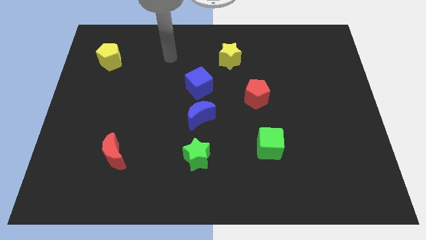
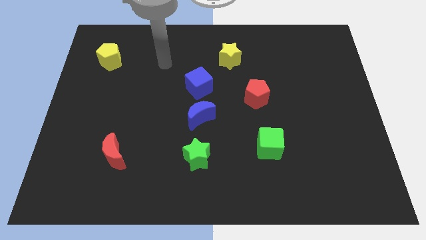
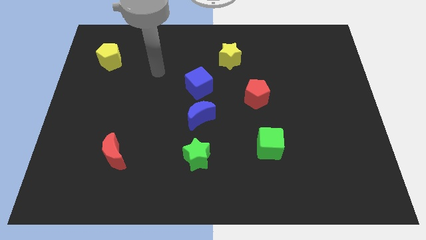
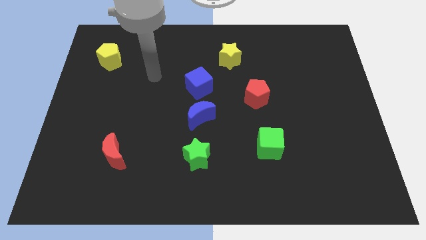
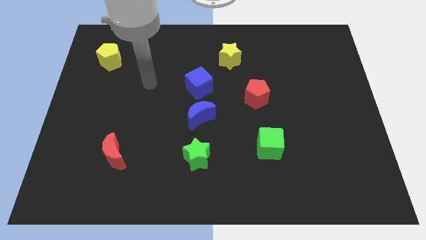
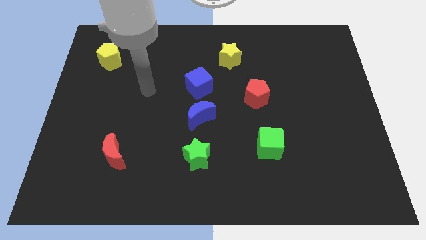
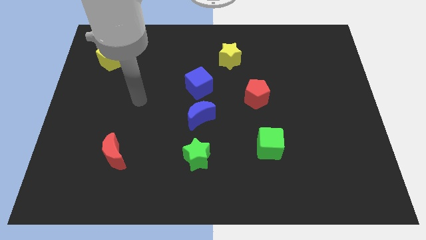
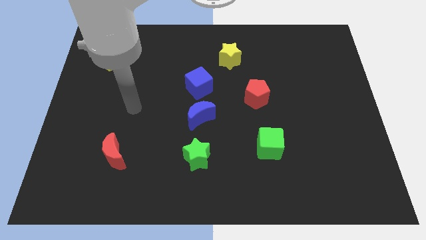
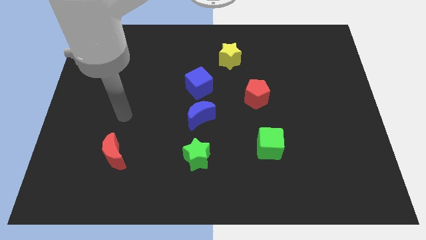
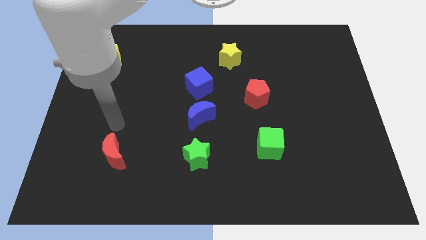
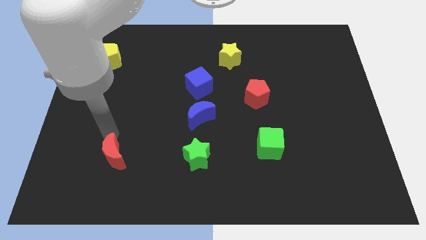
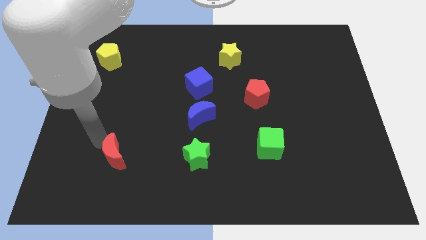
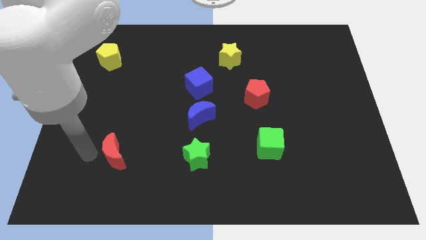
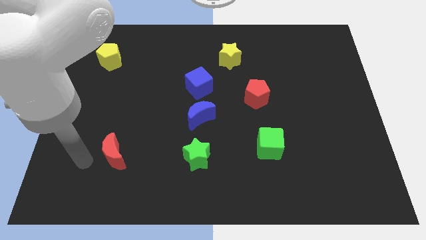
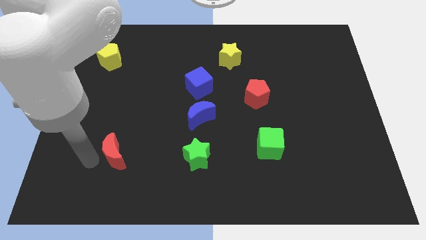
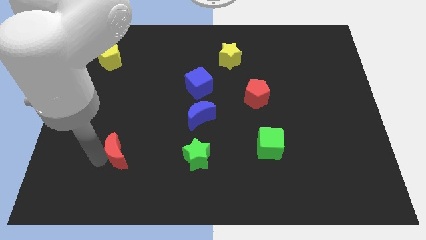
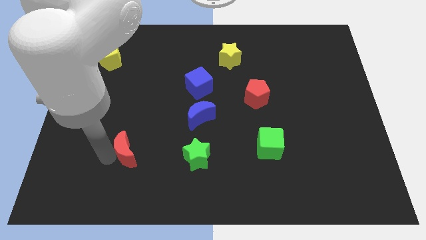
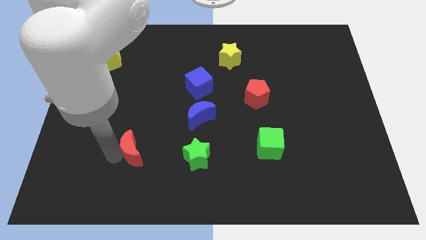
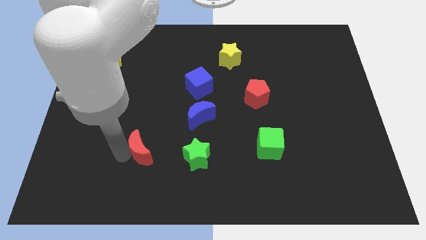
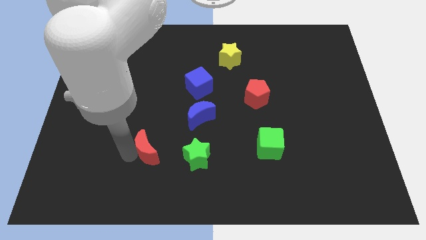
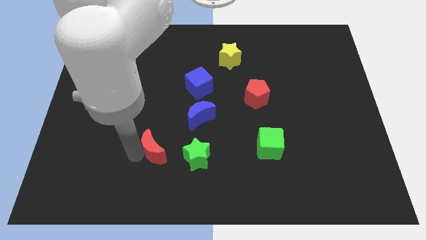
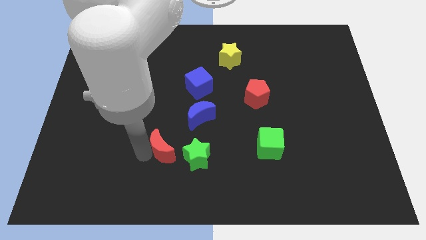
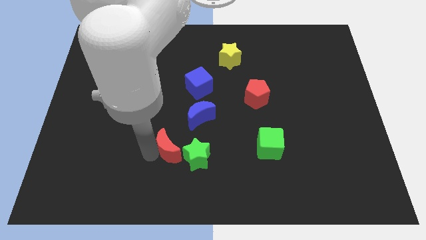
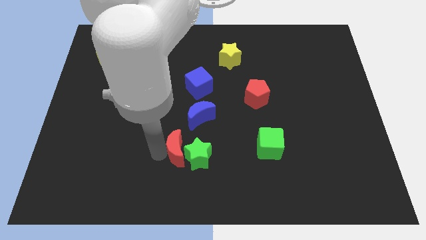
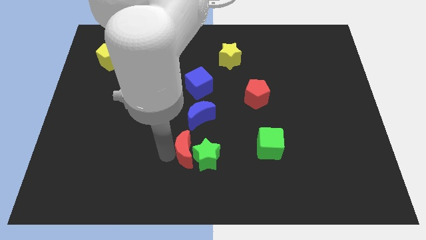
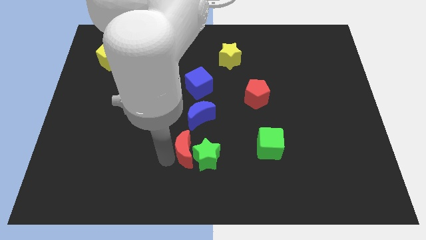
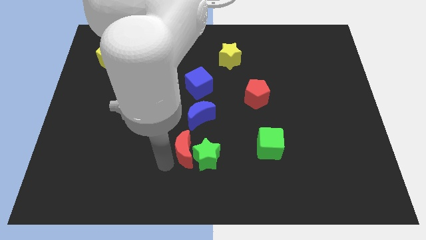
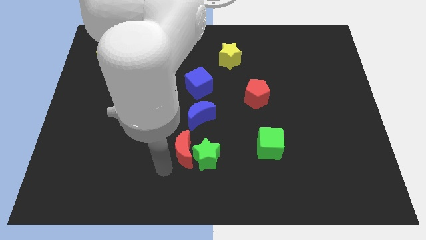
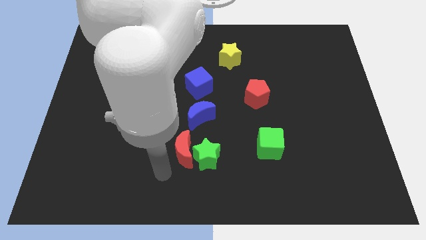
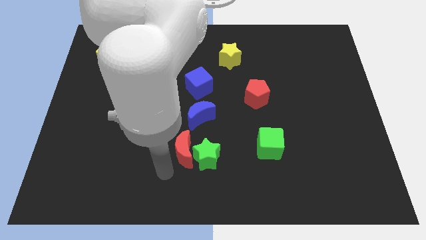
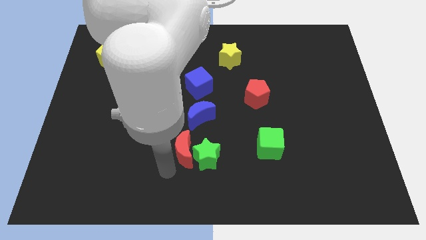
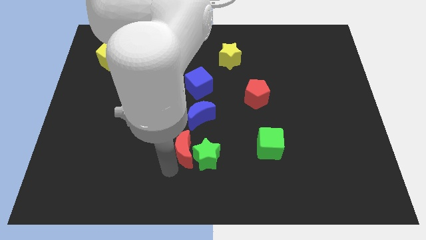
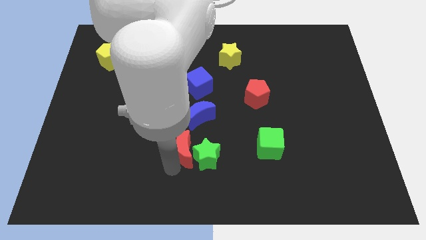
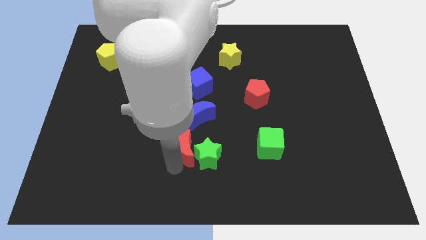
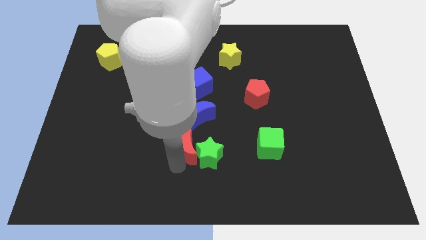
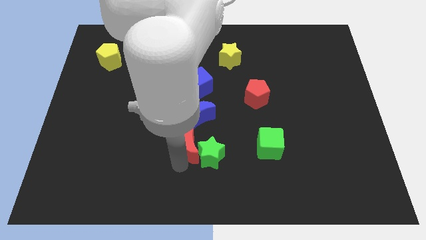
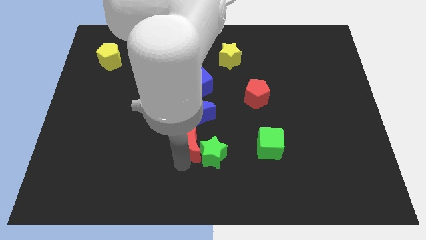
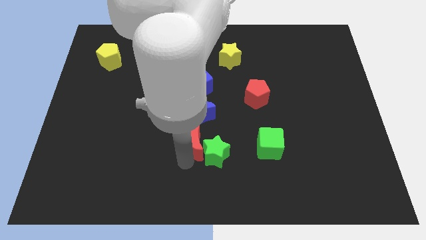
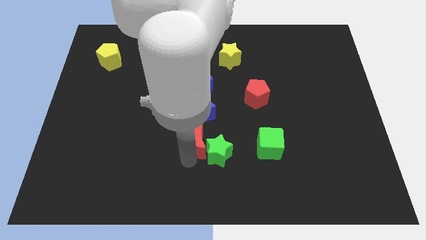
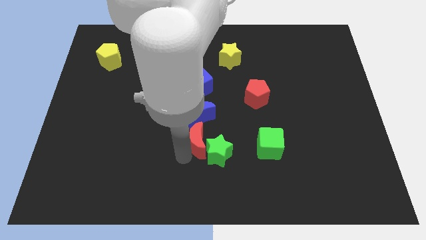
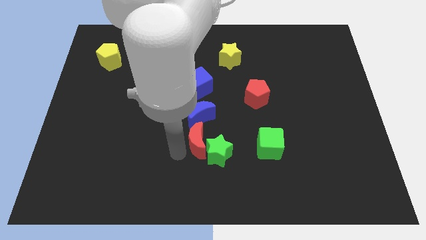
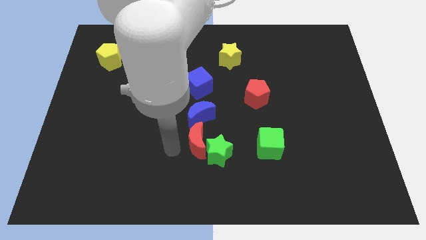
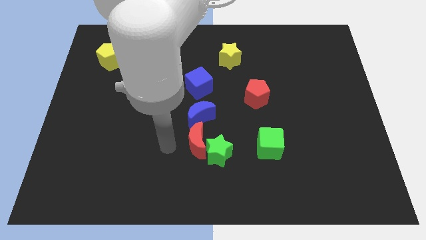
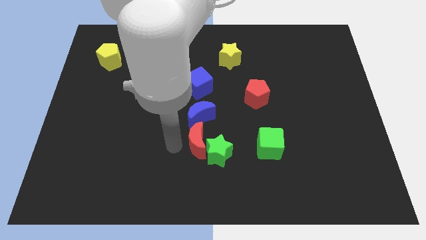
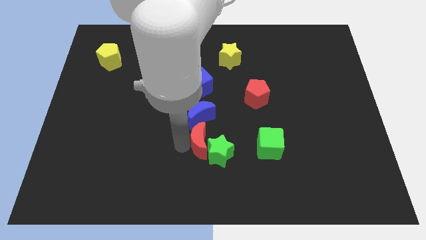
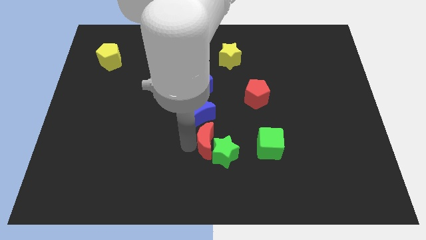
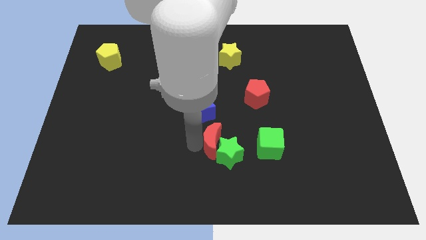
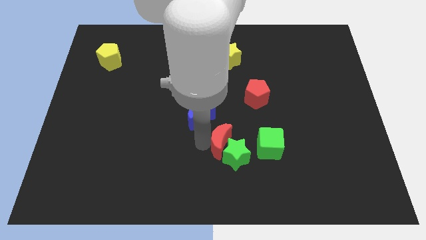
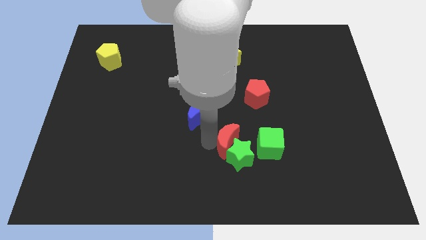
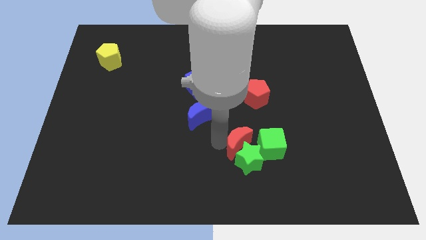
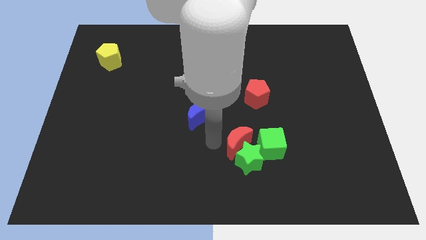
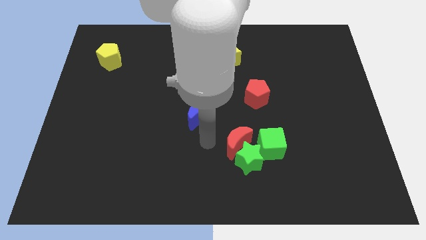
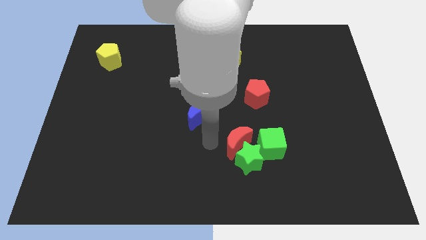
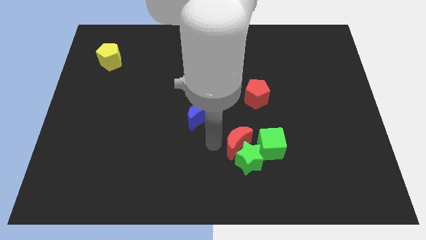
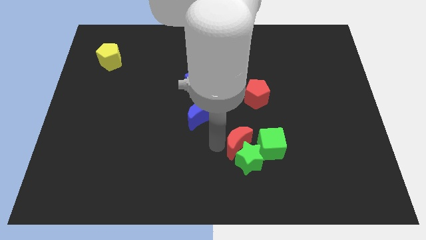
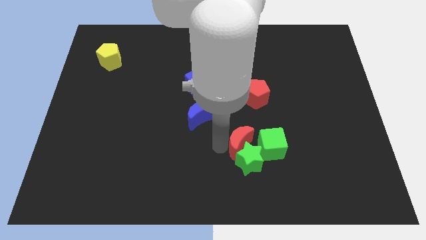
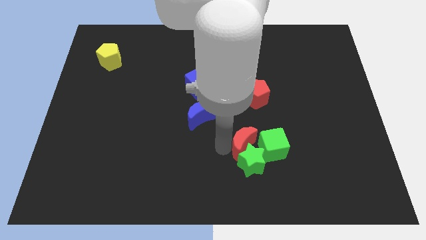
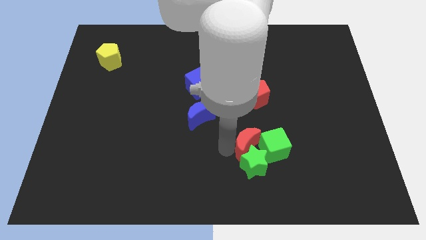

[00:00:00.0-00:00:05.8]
put the red moon towards the green cube

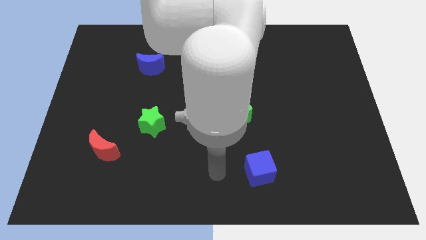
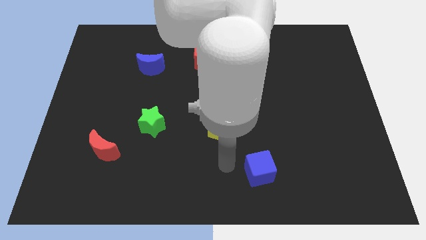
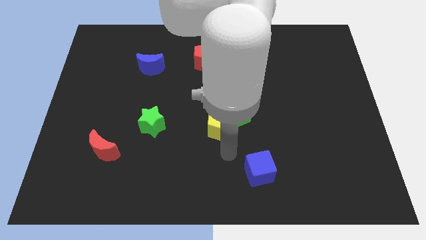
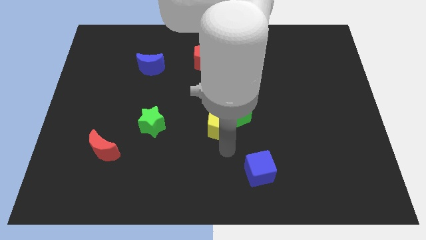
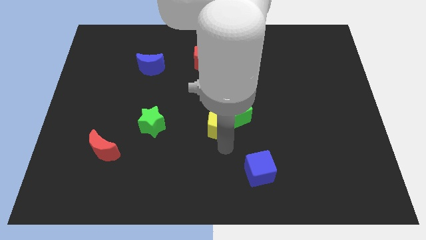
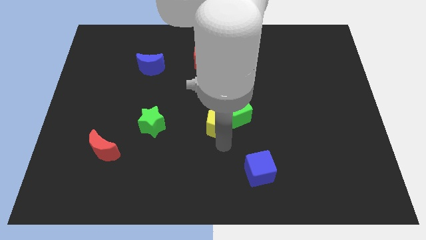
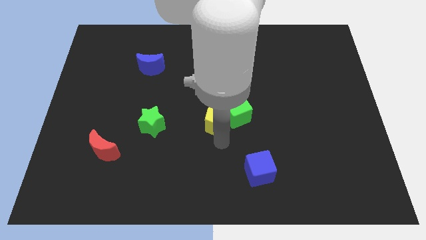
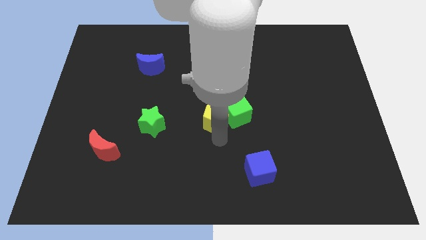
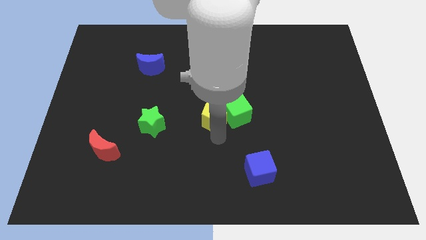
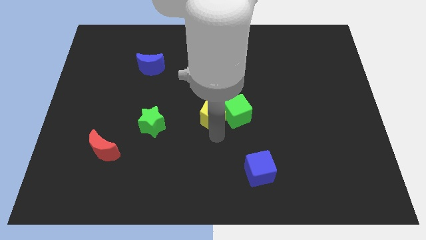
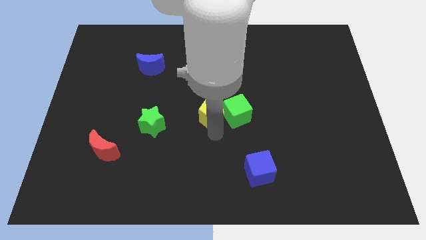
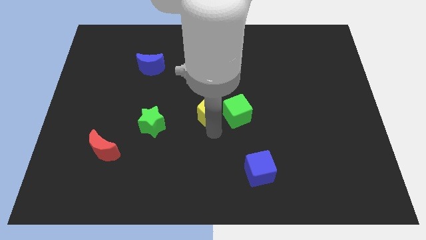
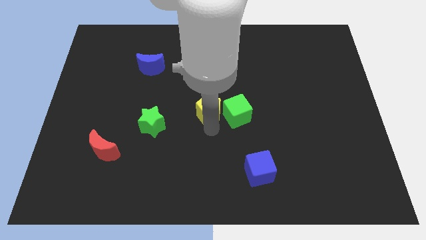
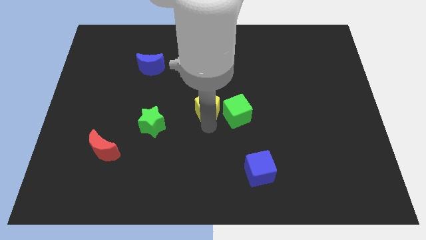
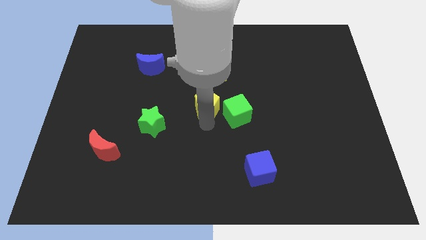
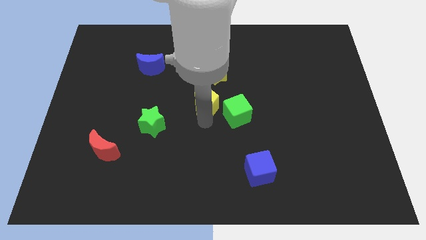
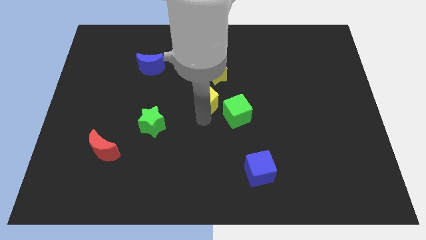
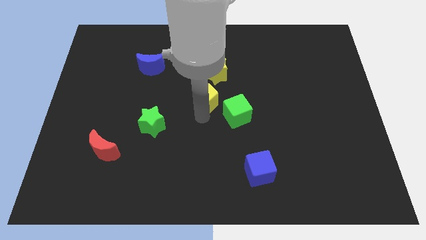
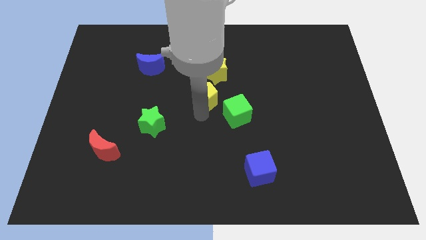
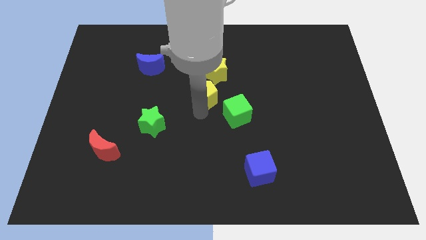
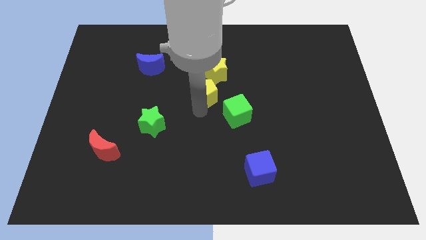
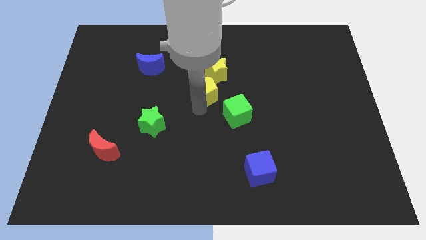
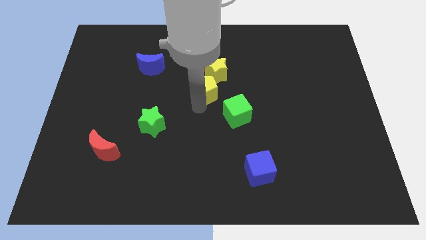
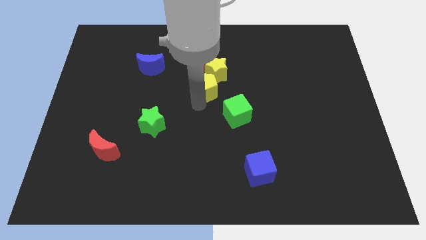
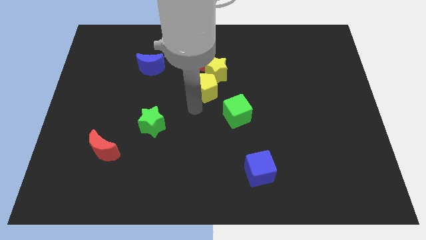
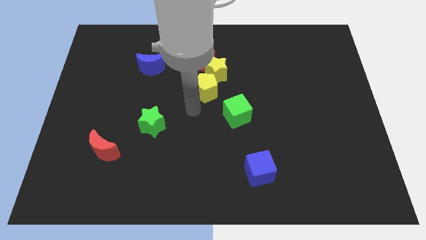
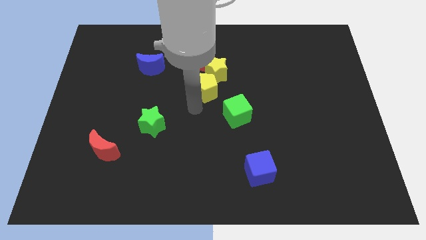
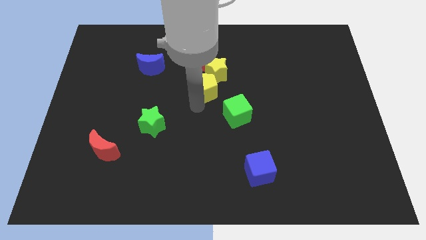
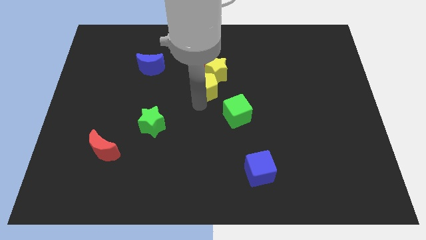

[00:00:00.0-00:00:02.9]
move the yellow pentagon close to the yellow star
